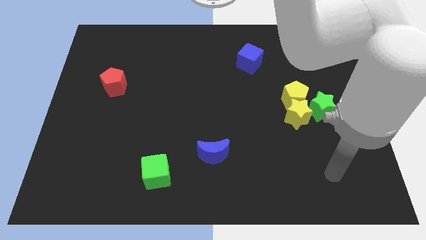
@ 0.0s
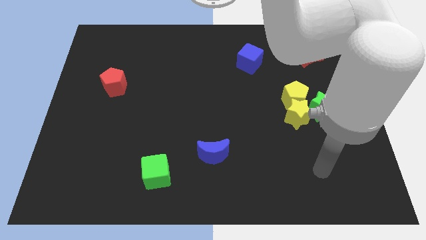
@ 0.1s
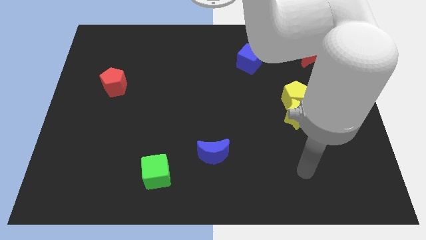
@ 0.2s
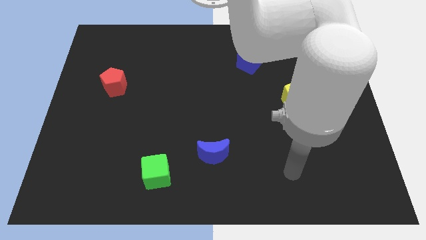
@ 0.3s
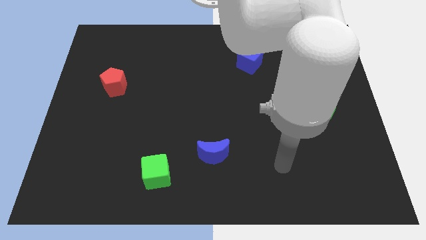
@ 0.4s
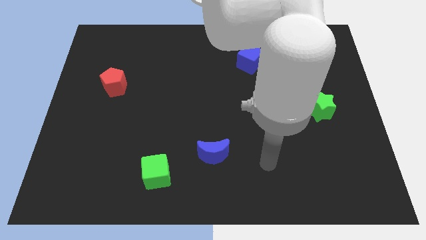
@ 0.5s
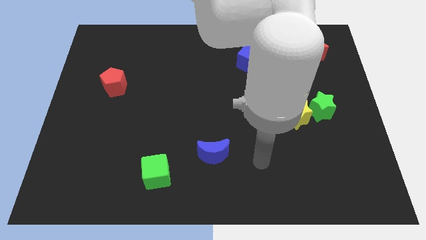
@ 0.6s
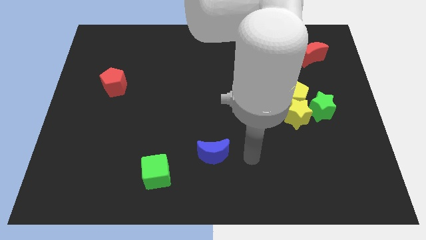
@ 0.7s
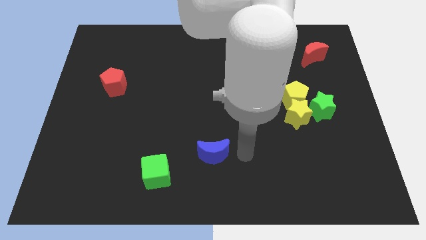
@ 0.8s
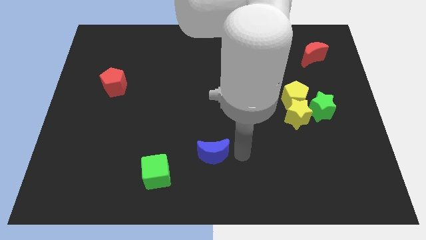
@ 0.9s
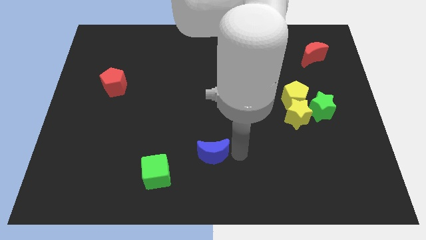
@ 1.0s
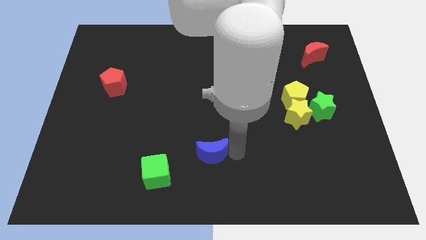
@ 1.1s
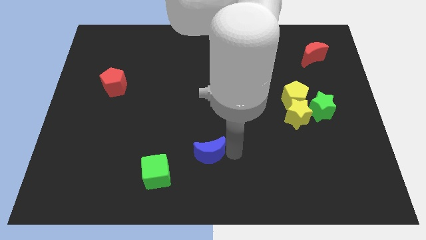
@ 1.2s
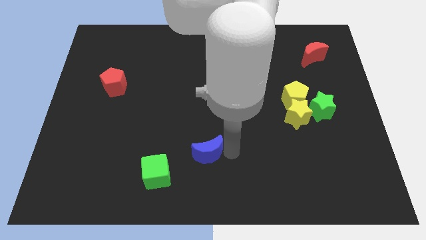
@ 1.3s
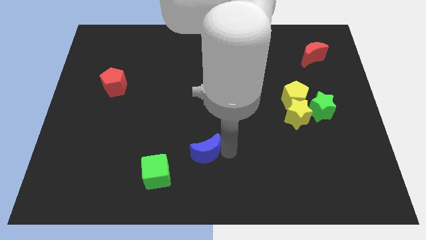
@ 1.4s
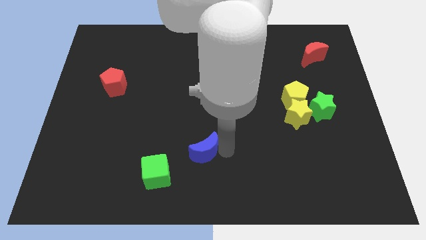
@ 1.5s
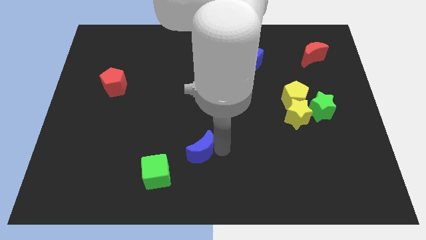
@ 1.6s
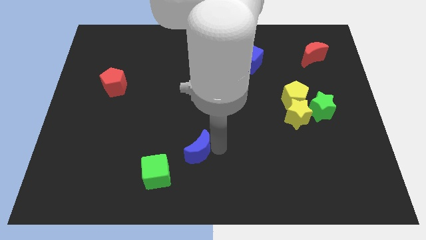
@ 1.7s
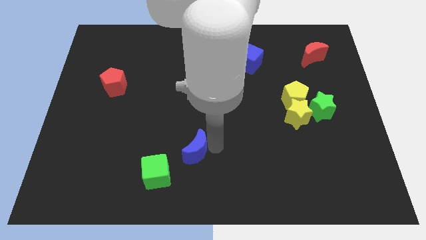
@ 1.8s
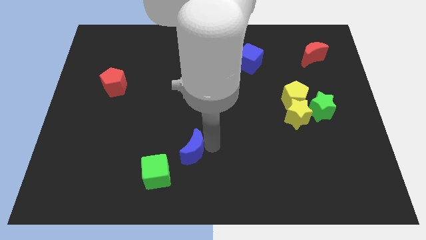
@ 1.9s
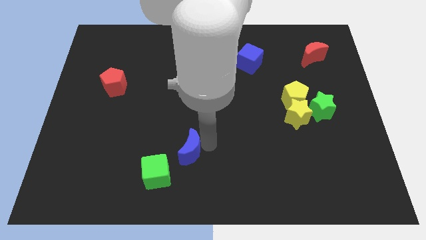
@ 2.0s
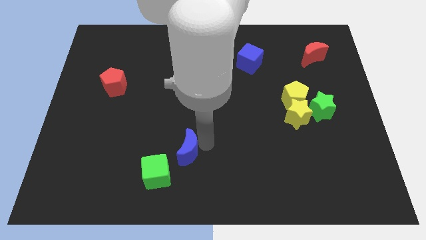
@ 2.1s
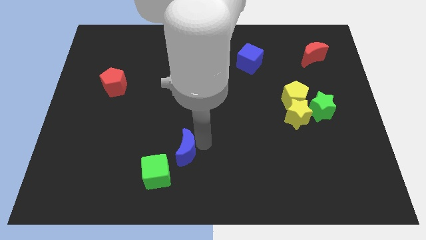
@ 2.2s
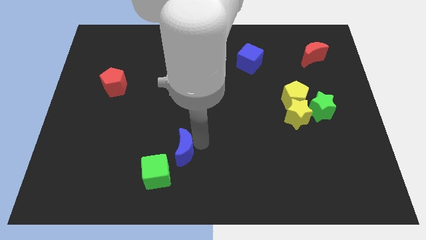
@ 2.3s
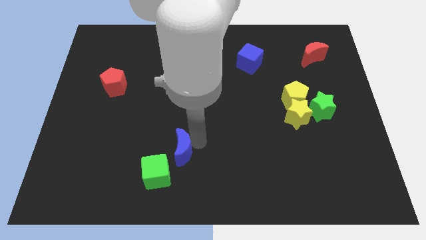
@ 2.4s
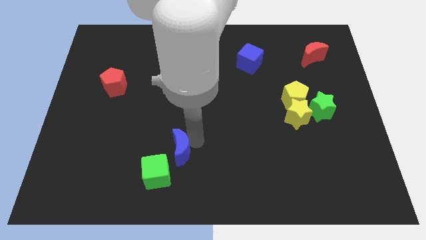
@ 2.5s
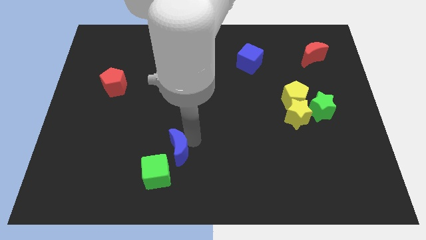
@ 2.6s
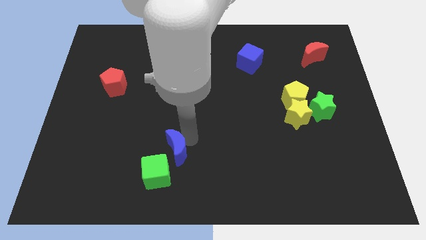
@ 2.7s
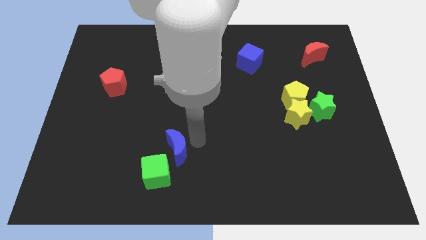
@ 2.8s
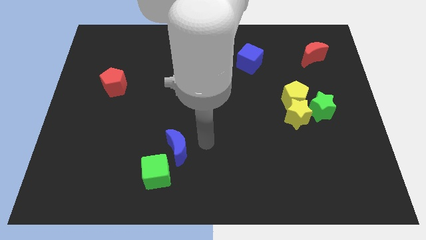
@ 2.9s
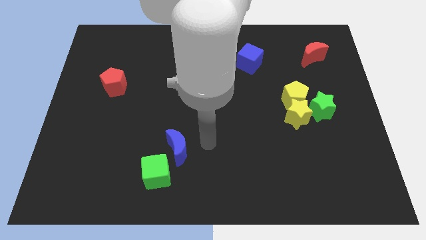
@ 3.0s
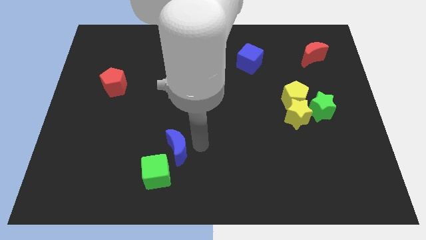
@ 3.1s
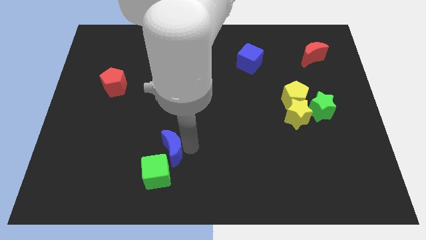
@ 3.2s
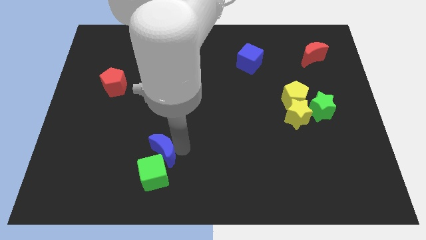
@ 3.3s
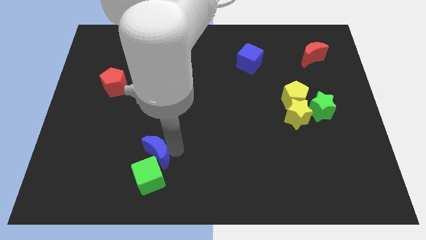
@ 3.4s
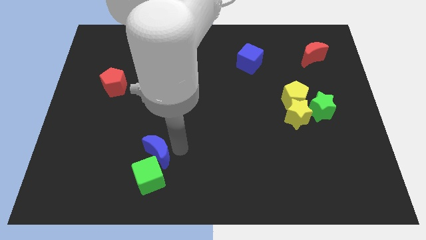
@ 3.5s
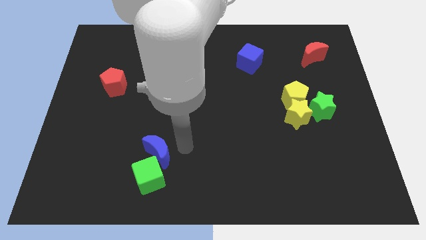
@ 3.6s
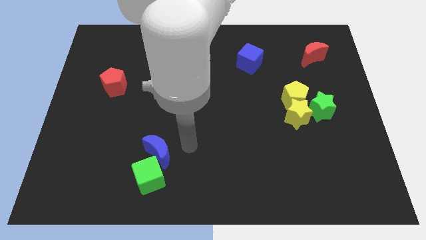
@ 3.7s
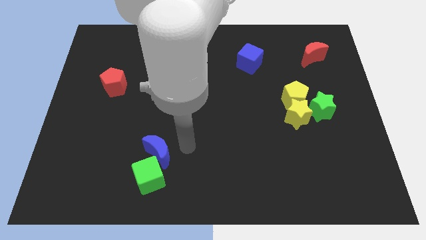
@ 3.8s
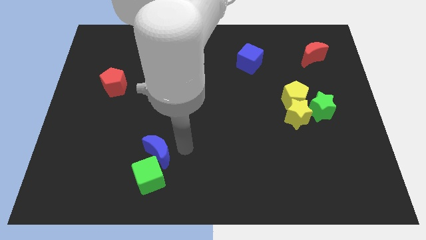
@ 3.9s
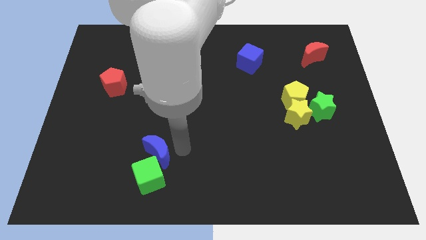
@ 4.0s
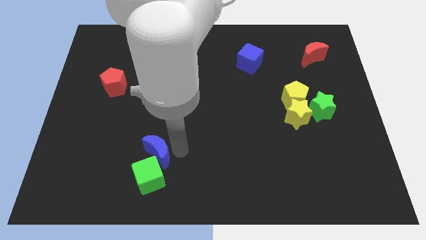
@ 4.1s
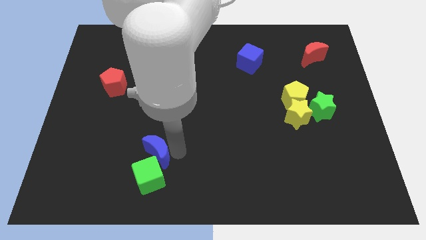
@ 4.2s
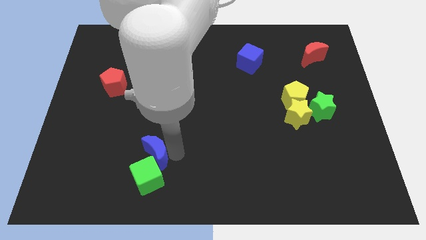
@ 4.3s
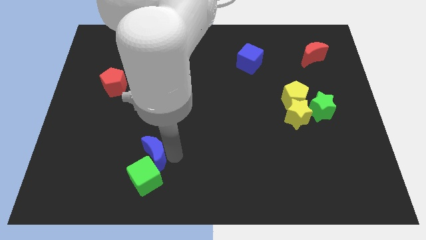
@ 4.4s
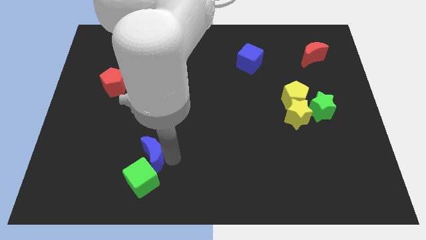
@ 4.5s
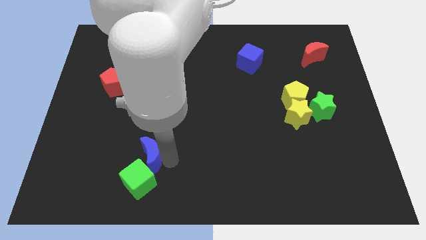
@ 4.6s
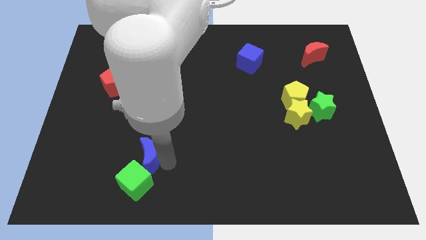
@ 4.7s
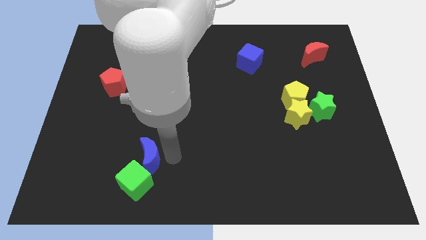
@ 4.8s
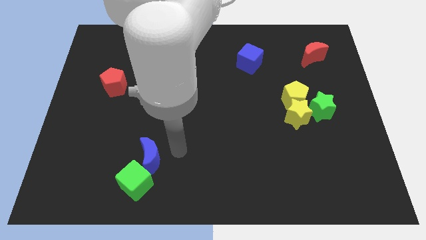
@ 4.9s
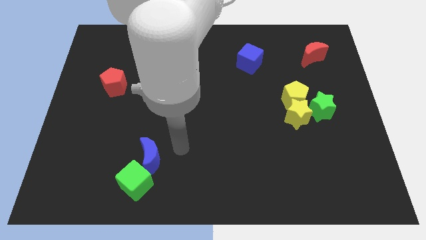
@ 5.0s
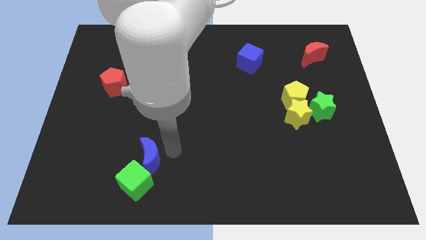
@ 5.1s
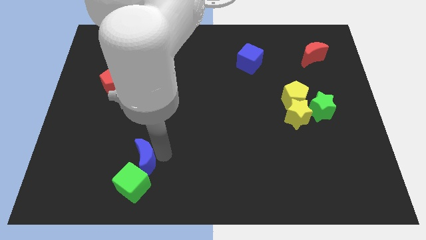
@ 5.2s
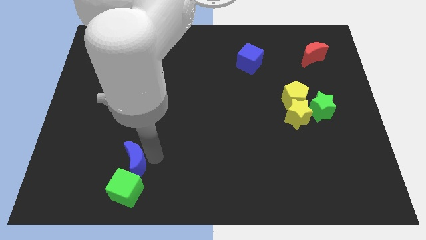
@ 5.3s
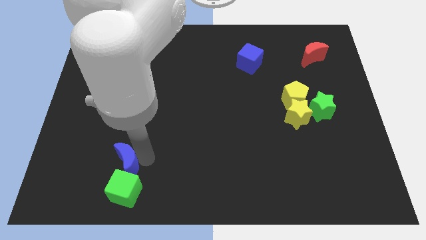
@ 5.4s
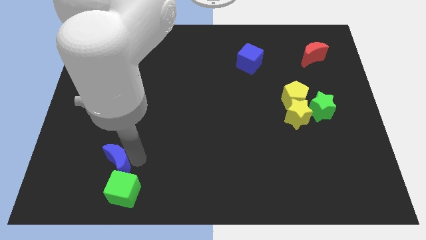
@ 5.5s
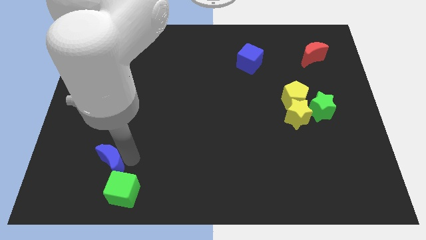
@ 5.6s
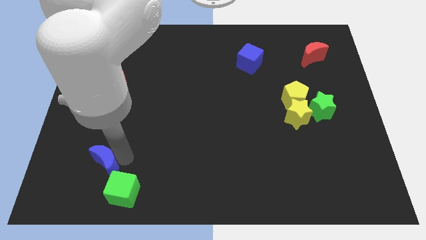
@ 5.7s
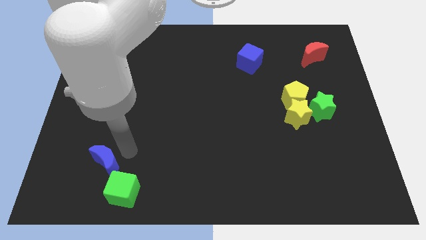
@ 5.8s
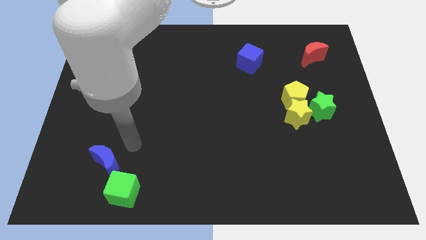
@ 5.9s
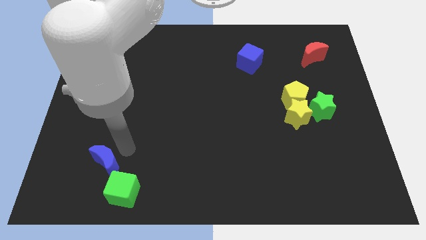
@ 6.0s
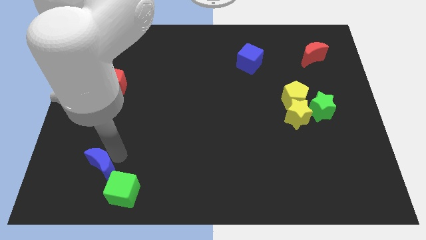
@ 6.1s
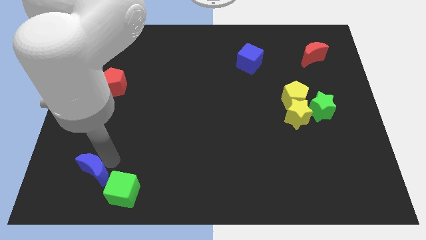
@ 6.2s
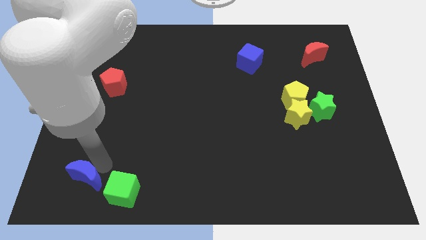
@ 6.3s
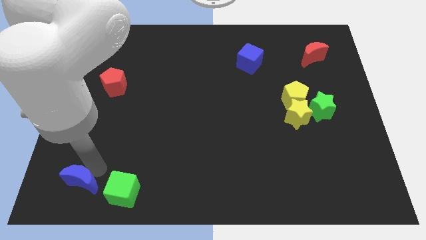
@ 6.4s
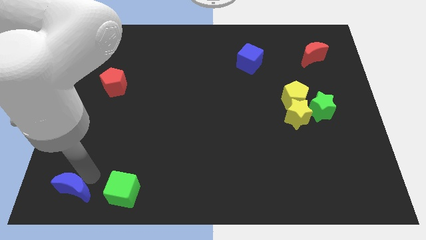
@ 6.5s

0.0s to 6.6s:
move the blue moon to the bottom left corner

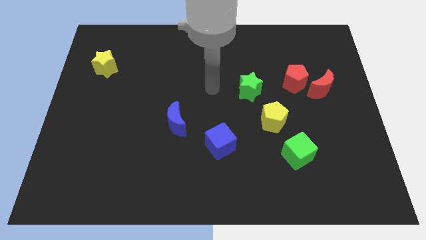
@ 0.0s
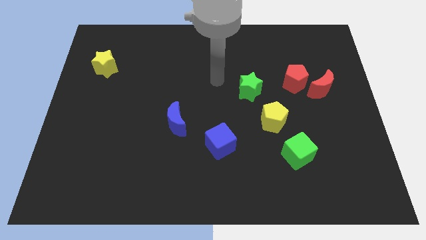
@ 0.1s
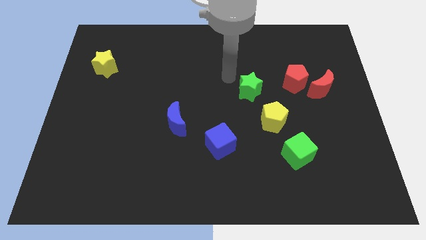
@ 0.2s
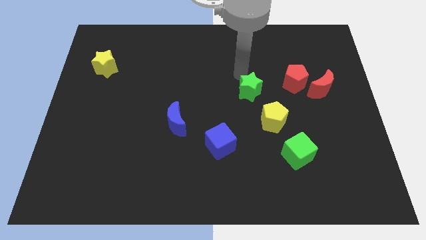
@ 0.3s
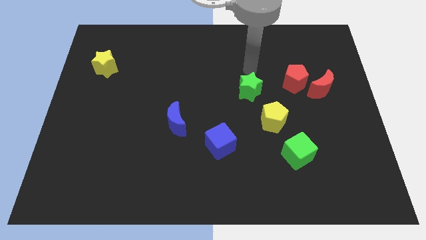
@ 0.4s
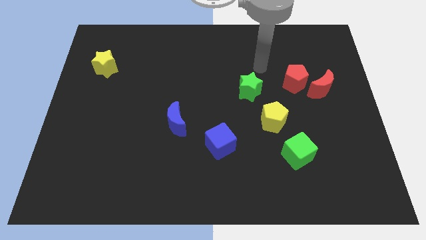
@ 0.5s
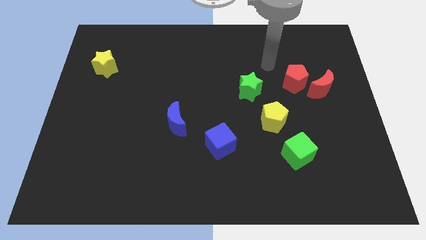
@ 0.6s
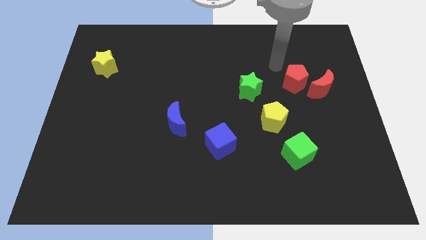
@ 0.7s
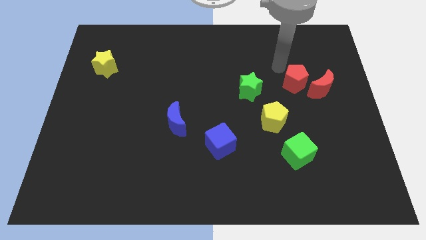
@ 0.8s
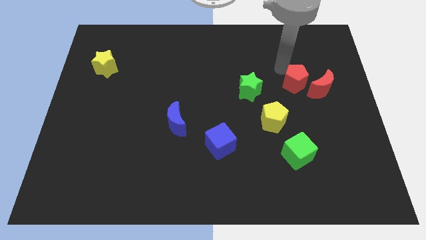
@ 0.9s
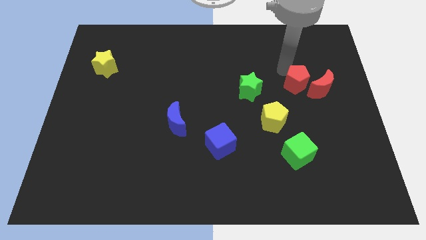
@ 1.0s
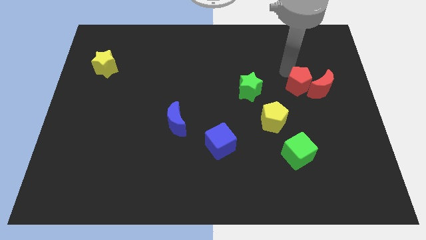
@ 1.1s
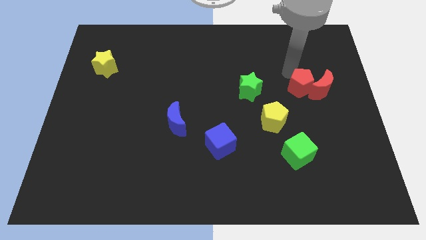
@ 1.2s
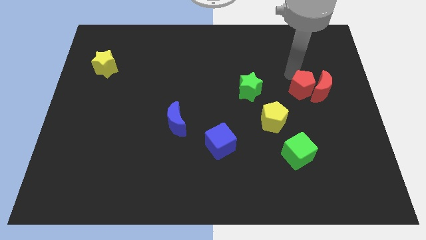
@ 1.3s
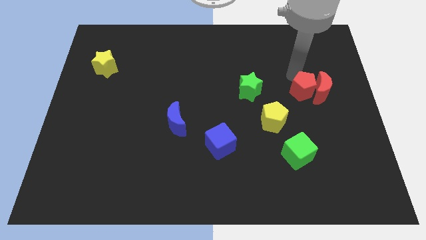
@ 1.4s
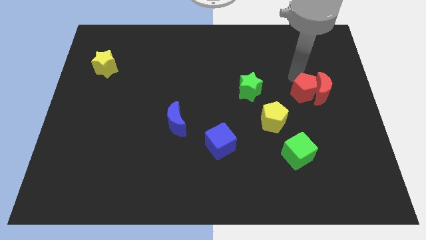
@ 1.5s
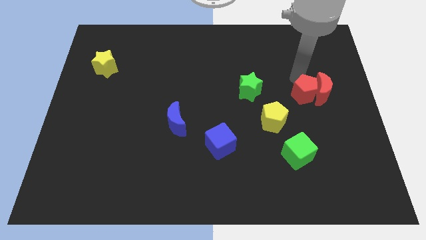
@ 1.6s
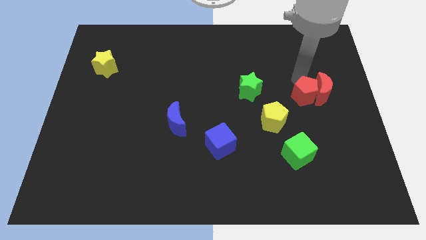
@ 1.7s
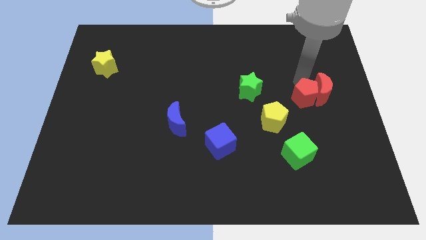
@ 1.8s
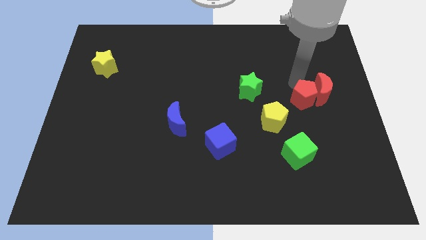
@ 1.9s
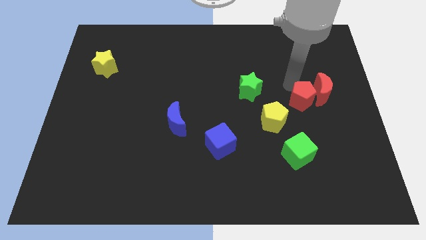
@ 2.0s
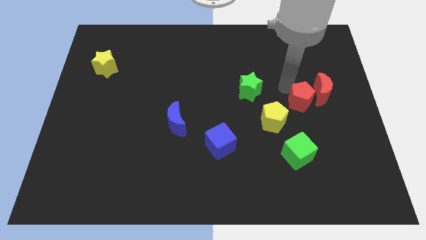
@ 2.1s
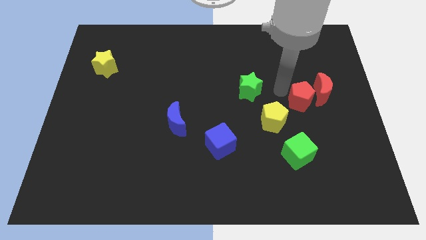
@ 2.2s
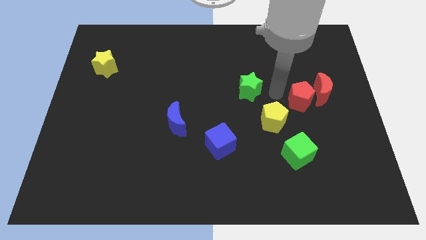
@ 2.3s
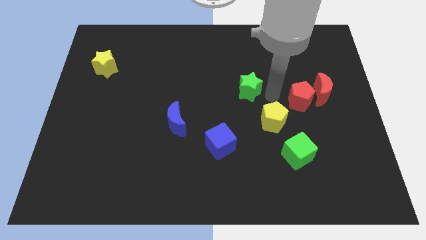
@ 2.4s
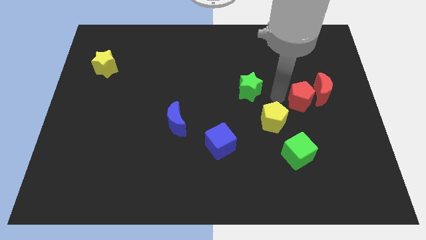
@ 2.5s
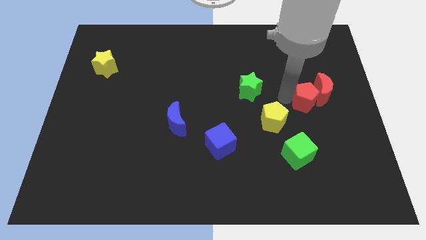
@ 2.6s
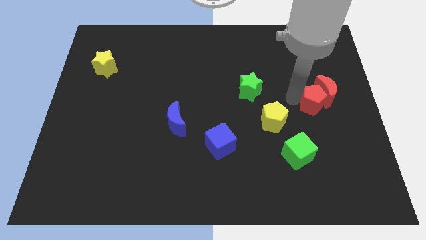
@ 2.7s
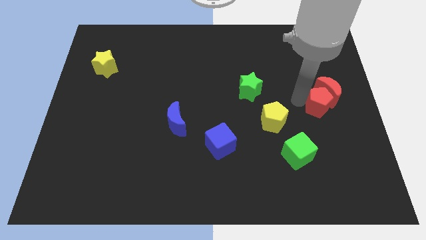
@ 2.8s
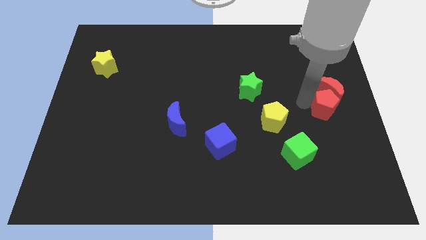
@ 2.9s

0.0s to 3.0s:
push the red pentagon to the right side
